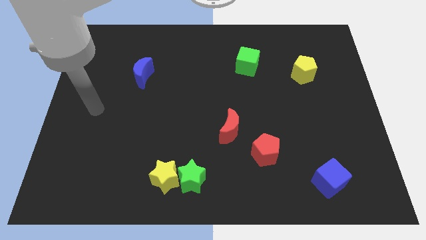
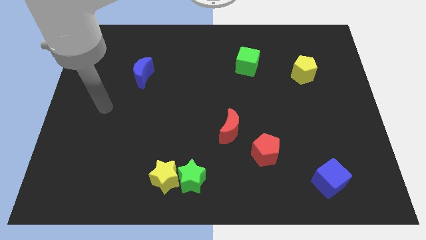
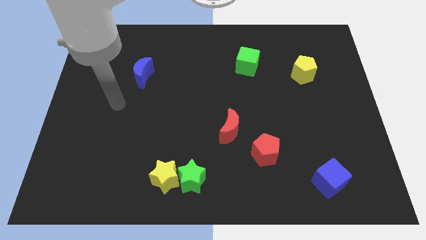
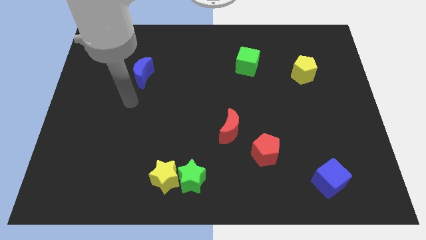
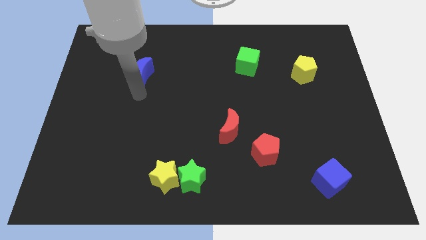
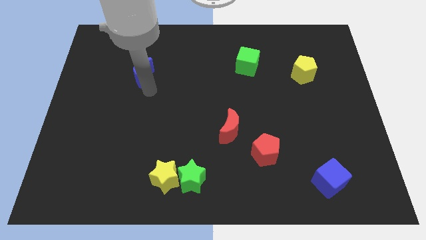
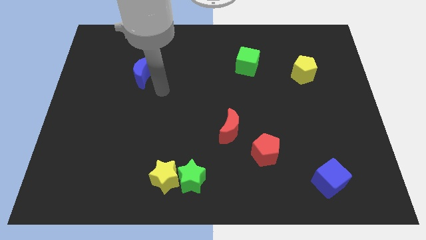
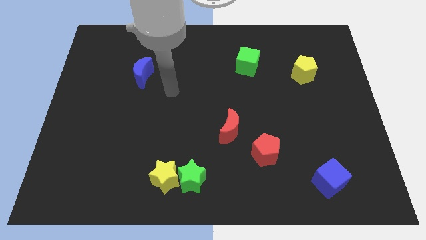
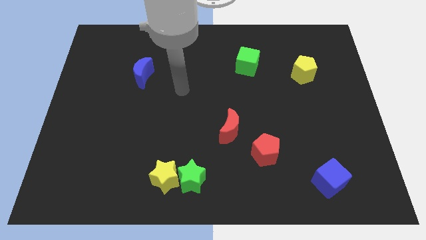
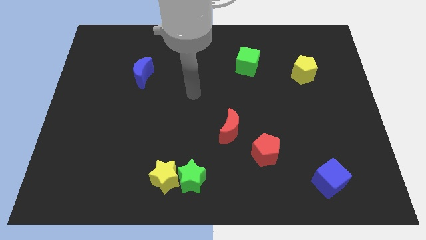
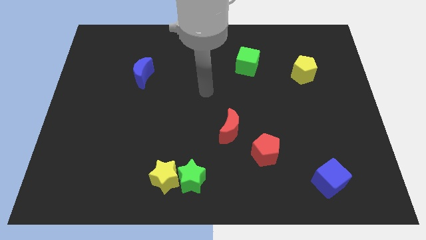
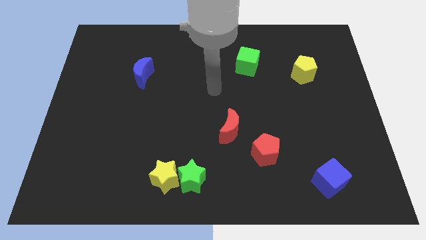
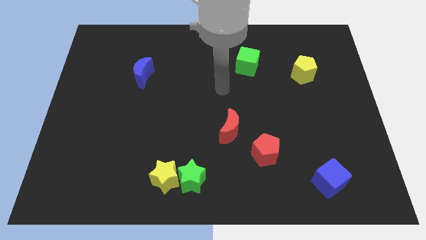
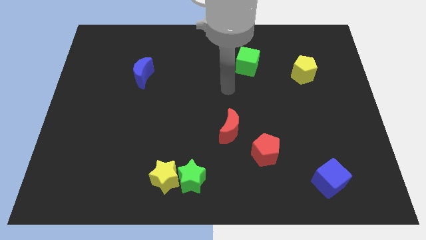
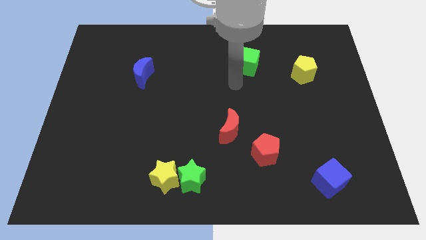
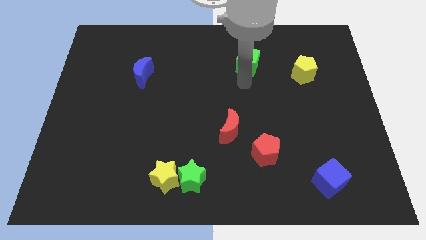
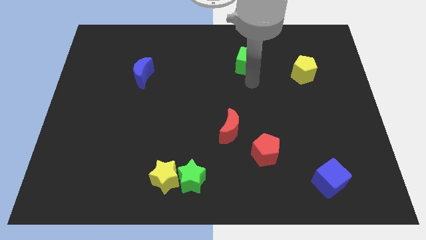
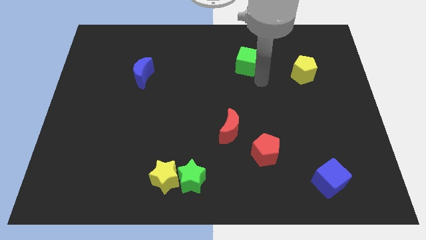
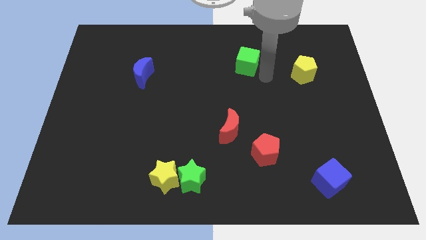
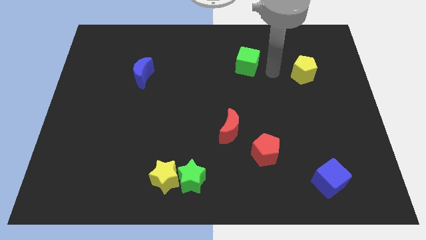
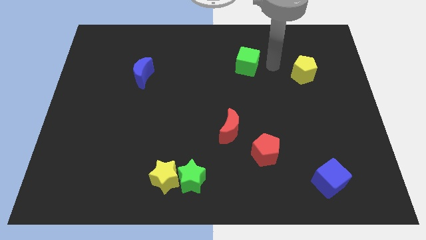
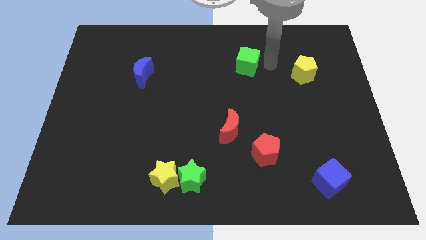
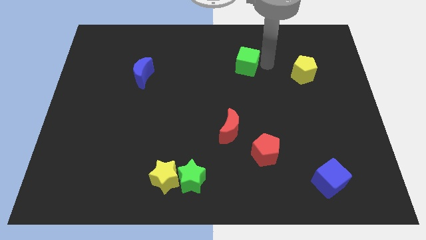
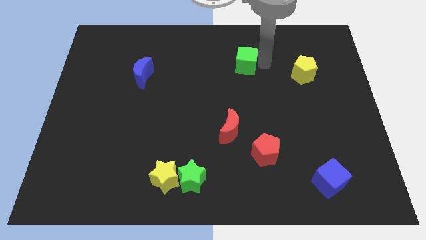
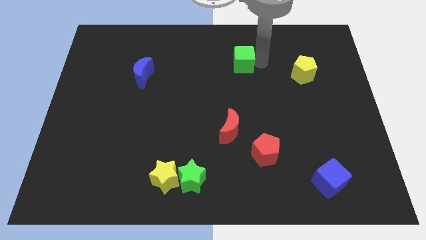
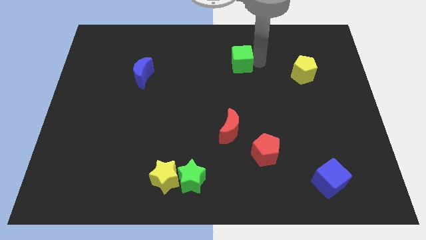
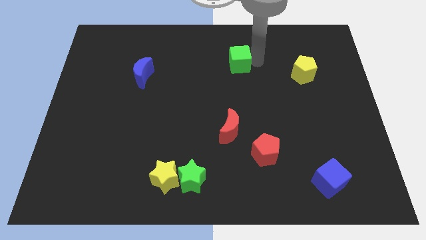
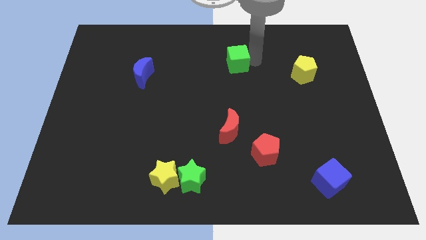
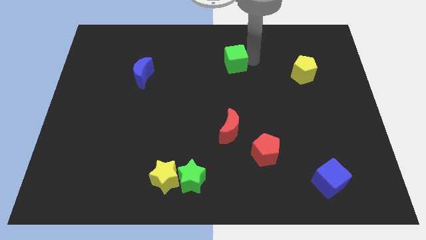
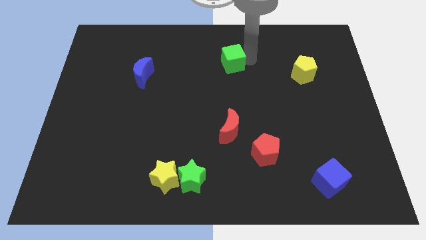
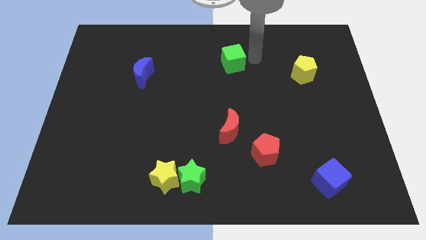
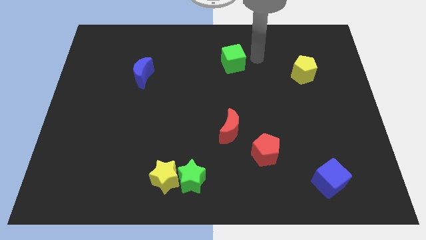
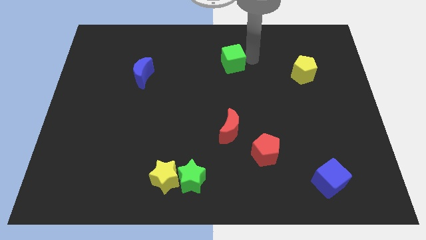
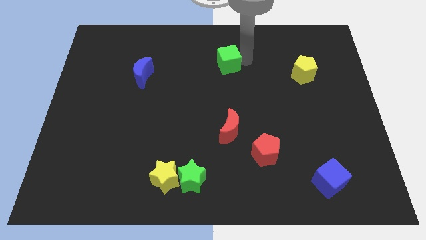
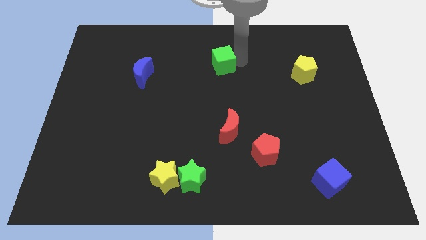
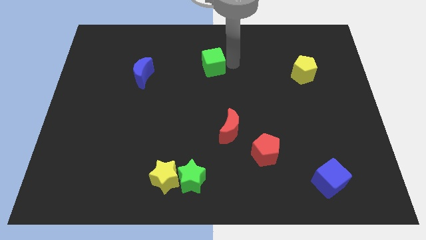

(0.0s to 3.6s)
slide the green cube to the left a little

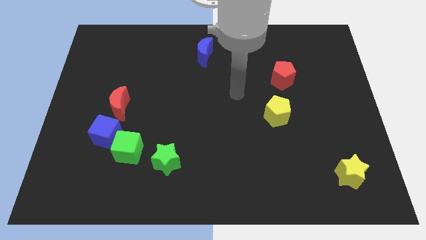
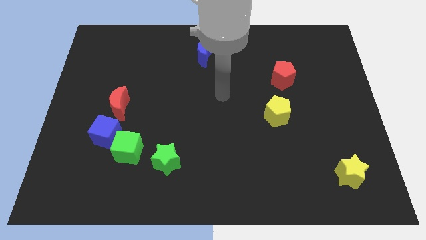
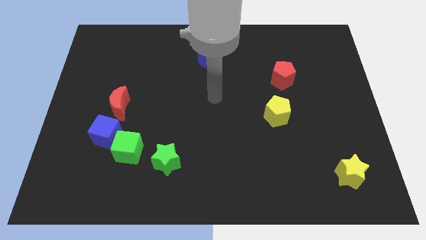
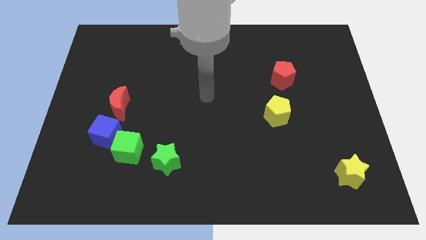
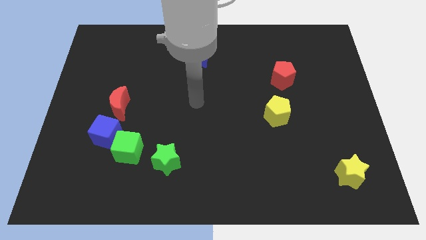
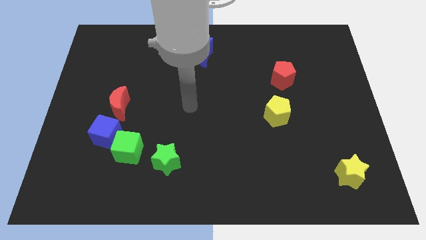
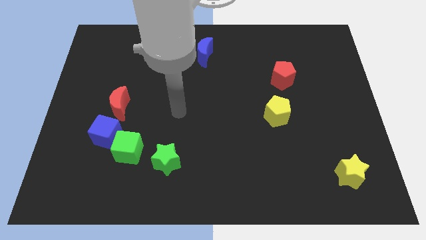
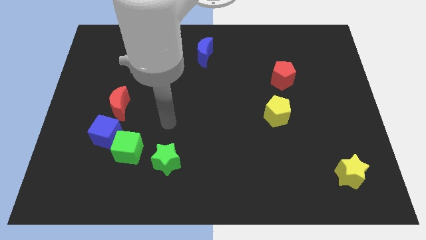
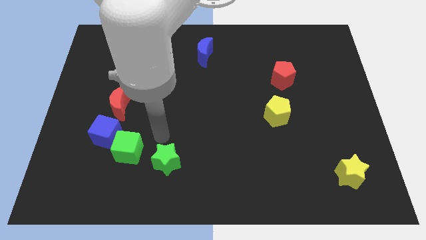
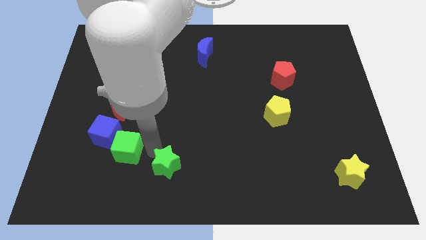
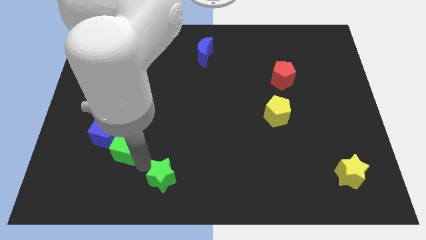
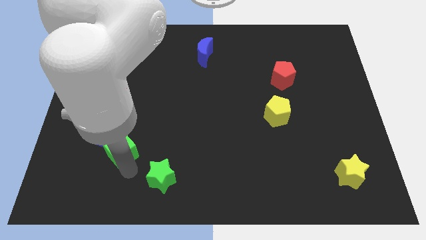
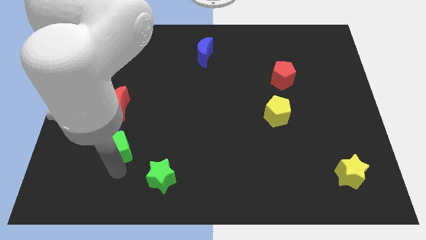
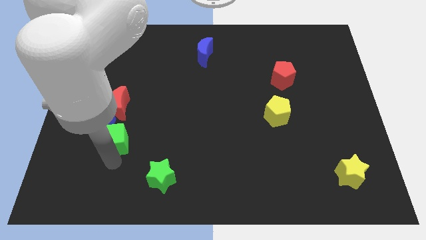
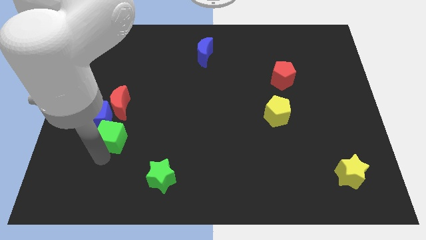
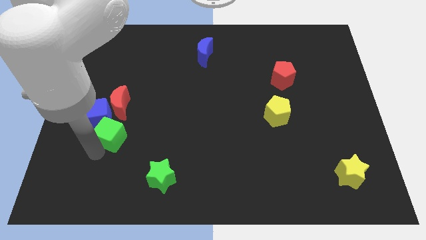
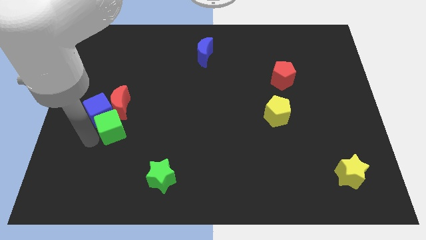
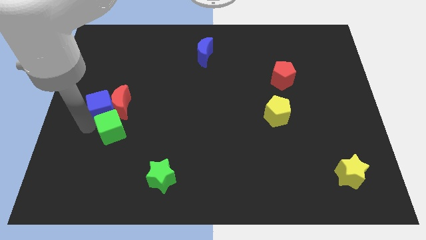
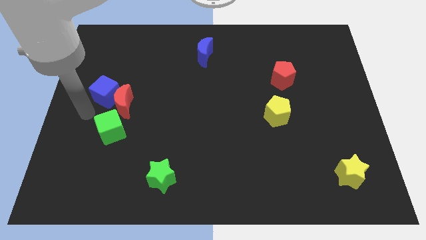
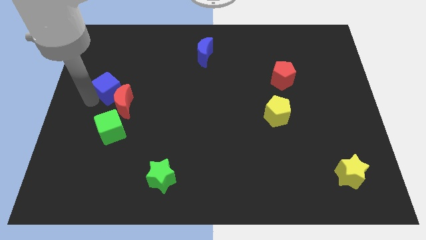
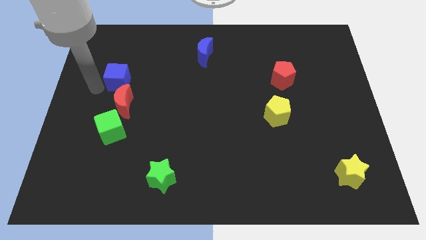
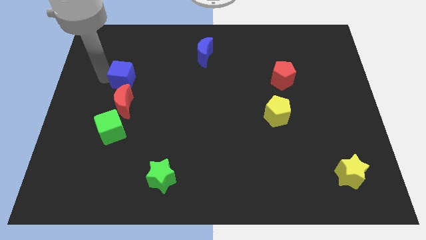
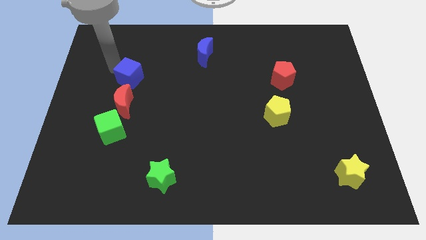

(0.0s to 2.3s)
push the blue cube up and right diagonally a little bit

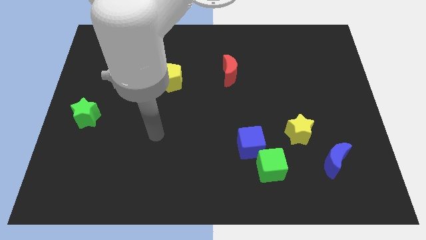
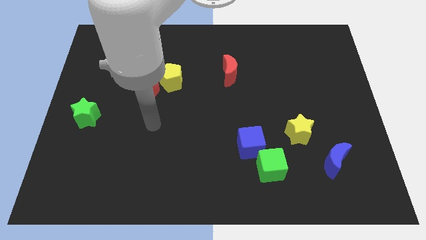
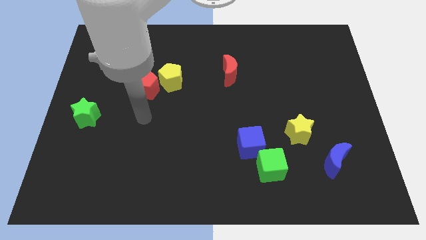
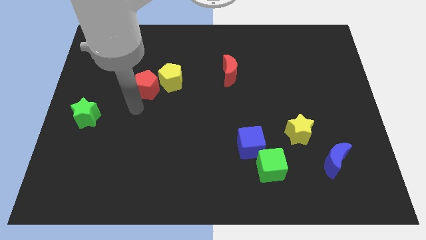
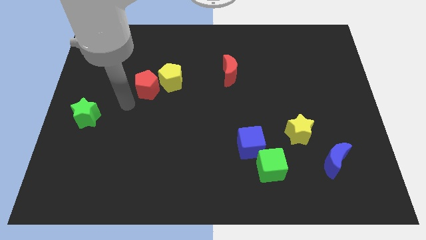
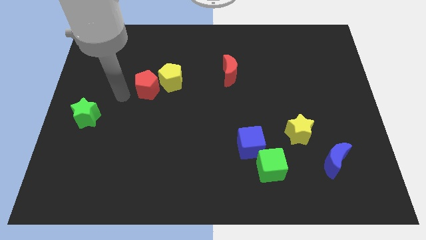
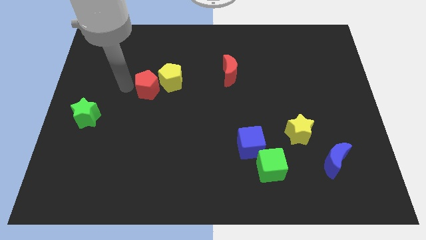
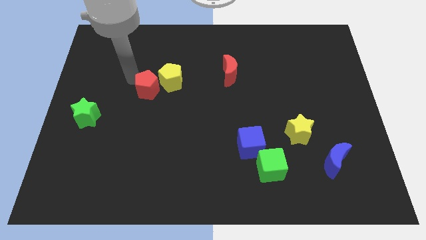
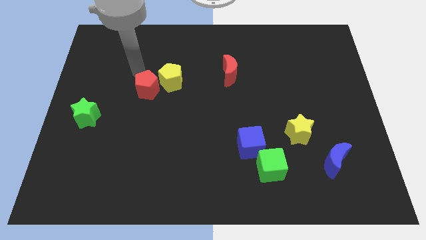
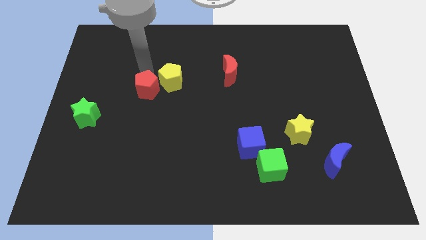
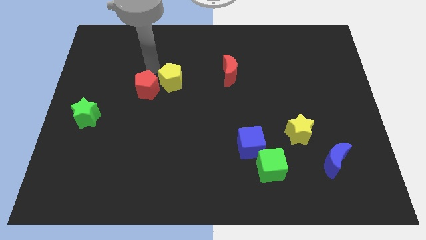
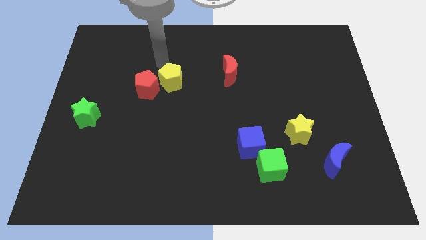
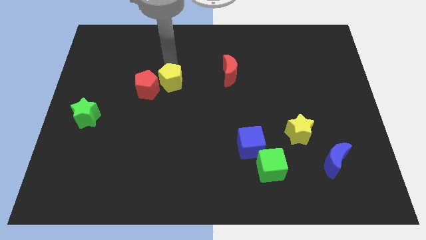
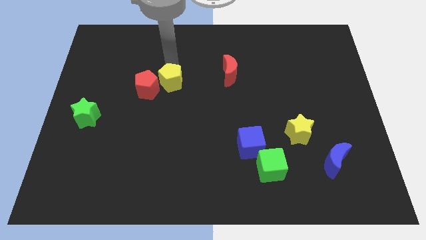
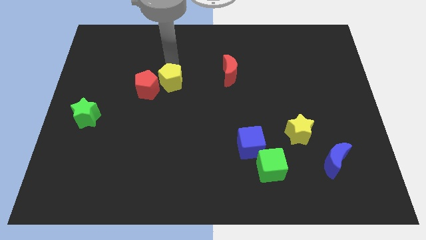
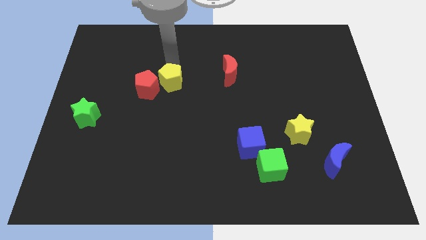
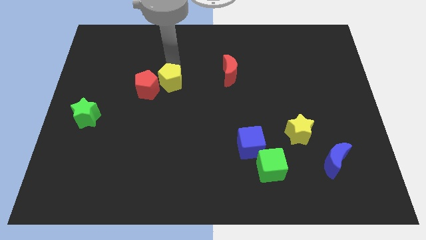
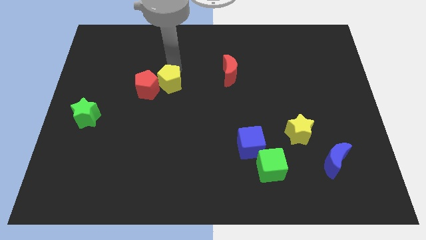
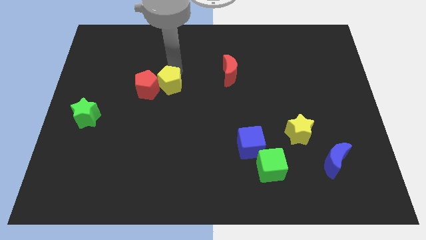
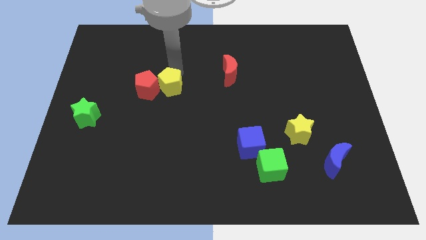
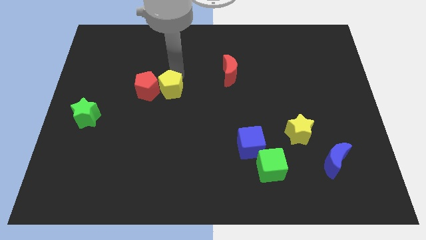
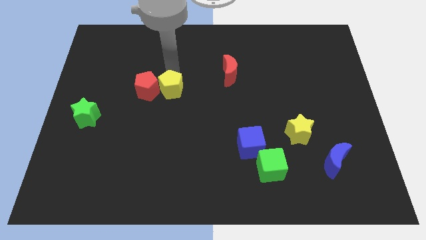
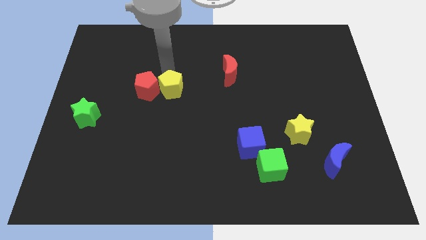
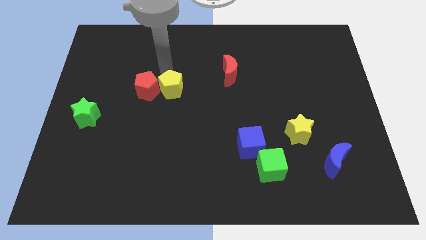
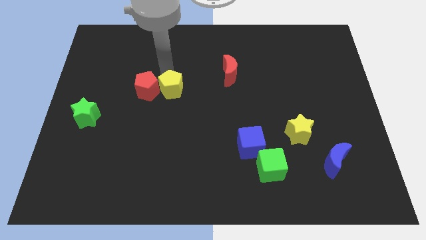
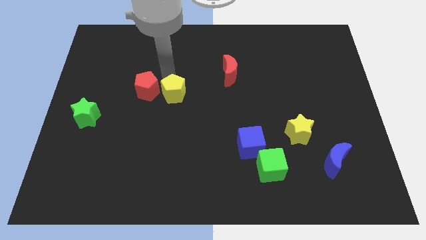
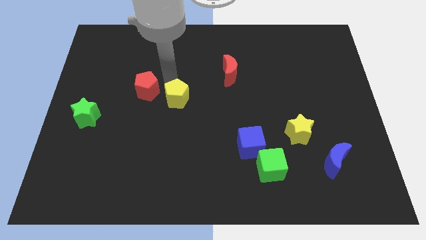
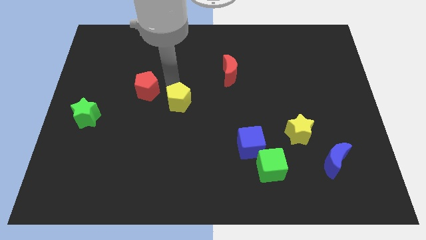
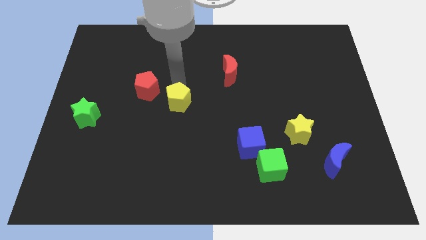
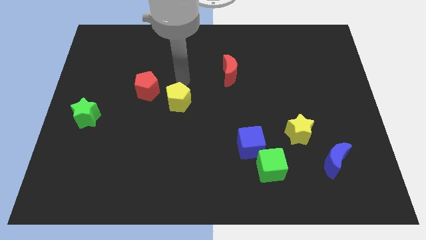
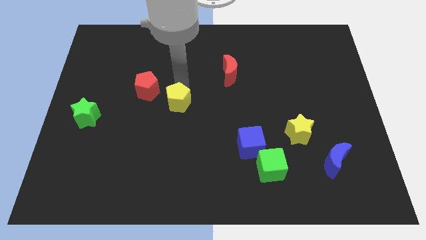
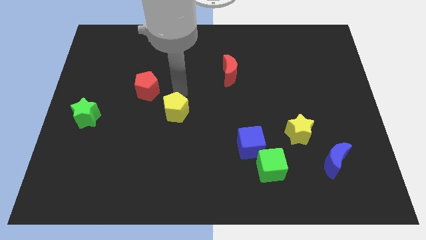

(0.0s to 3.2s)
slide the yellow pentagon a bit down
